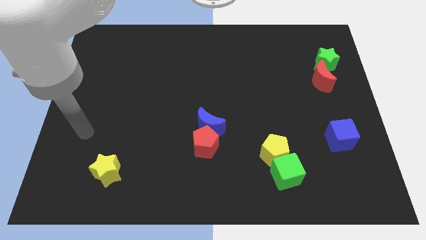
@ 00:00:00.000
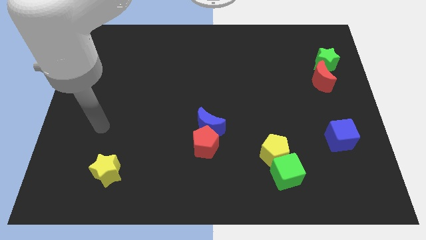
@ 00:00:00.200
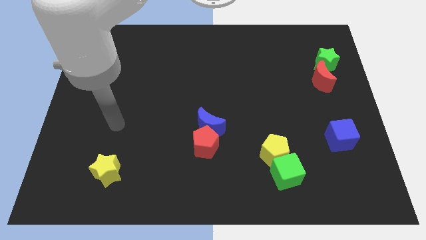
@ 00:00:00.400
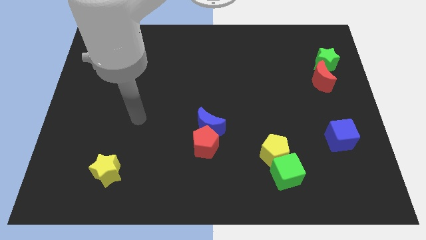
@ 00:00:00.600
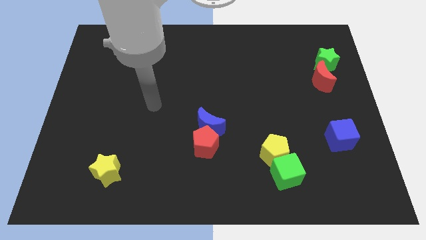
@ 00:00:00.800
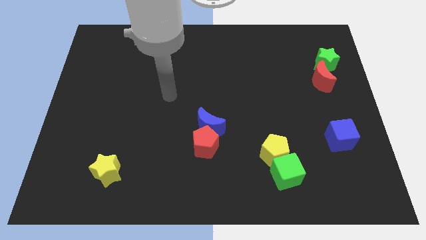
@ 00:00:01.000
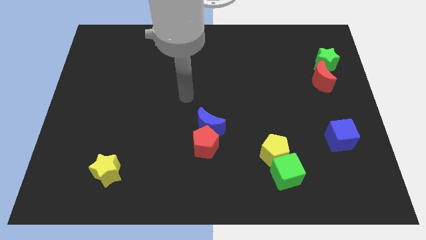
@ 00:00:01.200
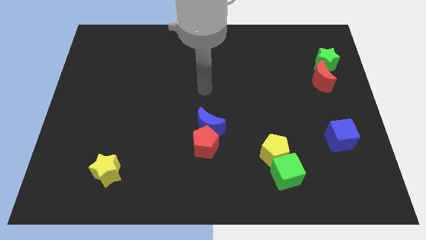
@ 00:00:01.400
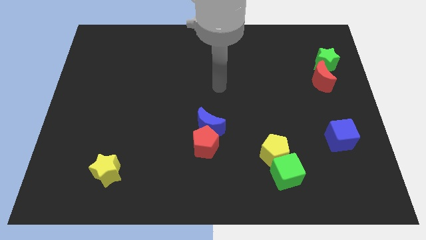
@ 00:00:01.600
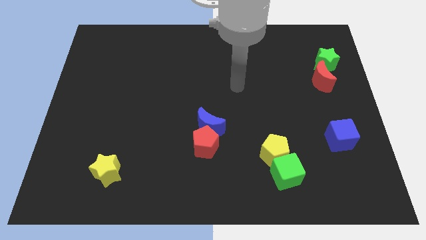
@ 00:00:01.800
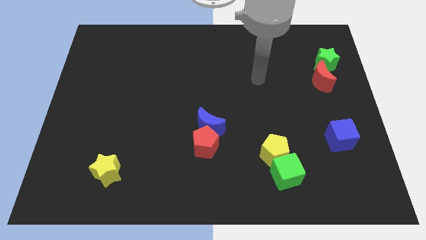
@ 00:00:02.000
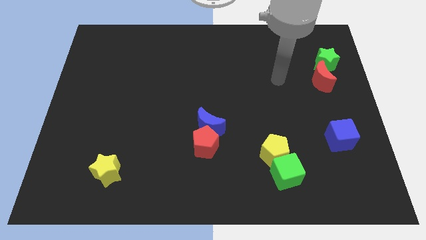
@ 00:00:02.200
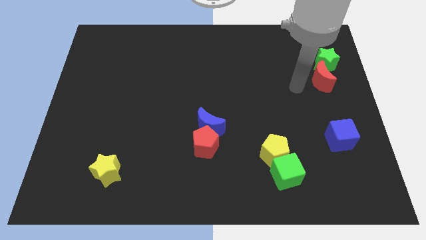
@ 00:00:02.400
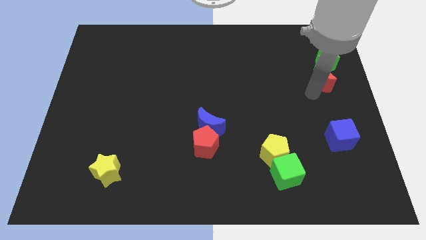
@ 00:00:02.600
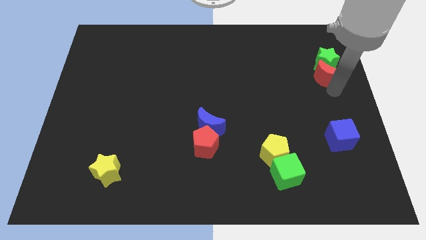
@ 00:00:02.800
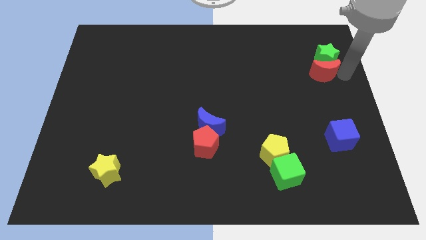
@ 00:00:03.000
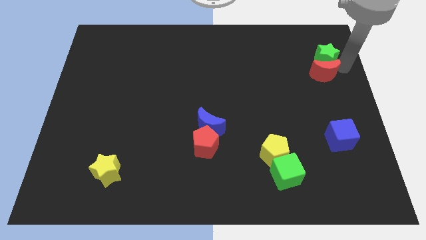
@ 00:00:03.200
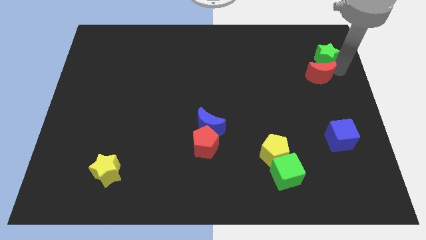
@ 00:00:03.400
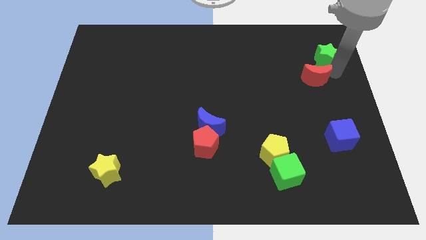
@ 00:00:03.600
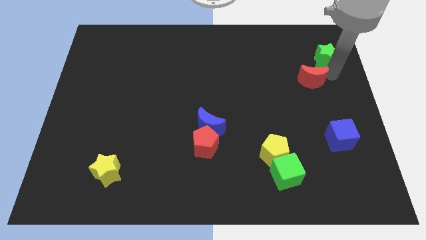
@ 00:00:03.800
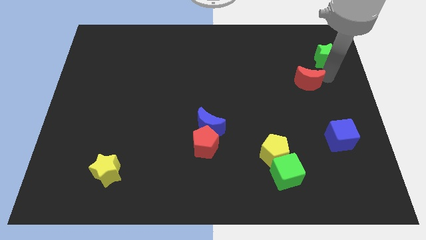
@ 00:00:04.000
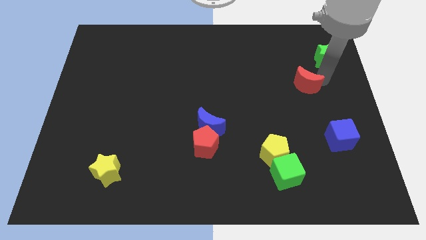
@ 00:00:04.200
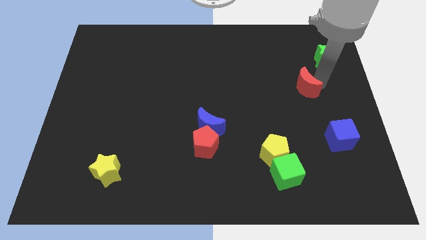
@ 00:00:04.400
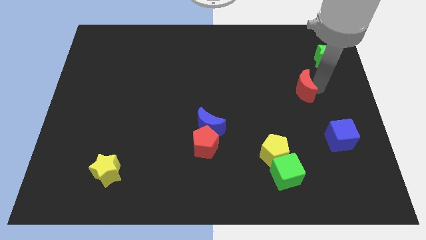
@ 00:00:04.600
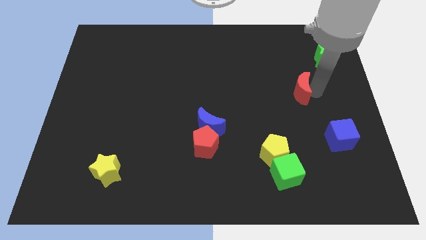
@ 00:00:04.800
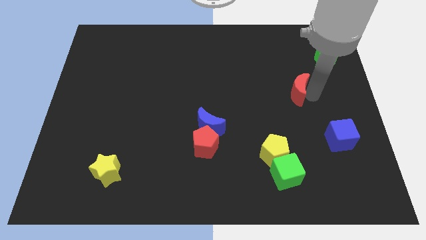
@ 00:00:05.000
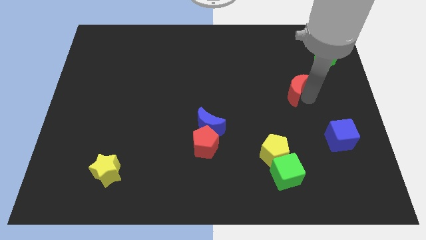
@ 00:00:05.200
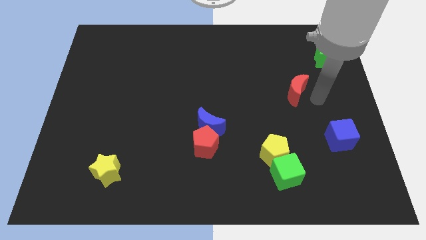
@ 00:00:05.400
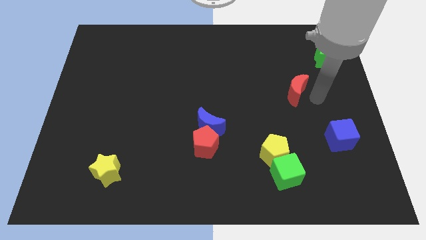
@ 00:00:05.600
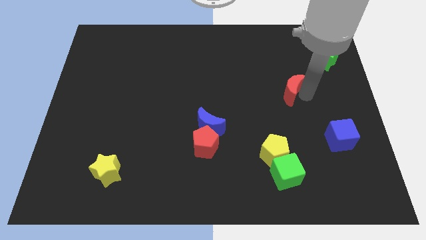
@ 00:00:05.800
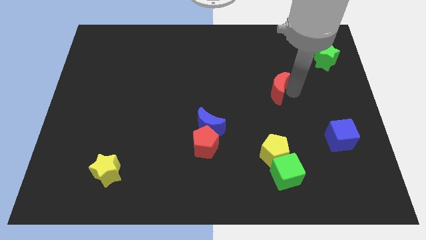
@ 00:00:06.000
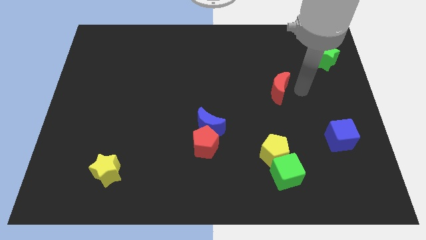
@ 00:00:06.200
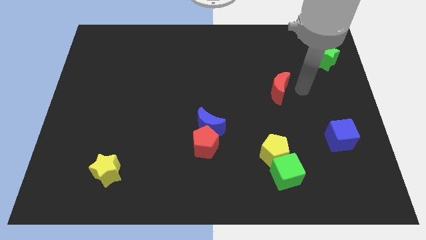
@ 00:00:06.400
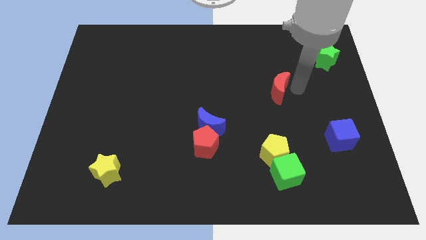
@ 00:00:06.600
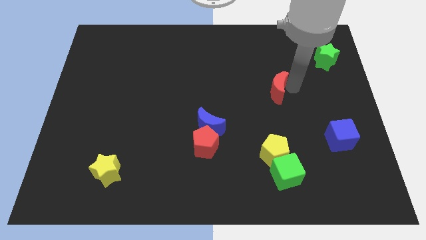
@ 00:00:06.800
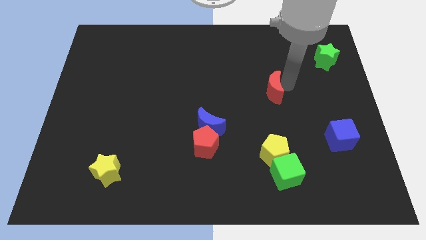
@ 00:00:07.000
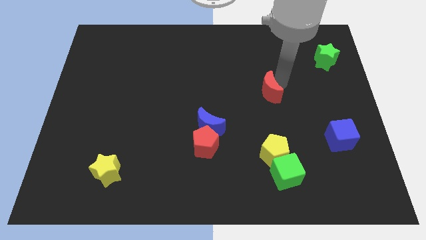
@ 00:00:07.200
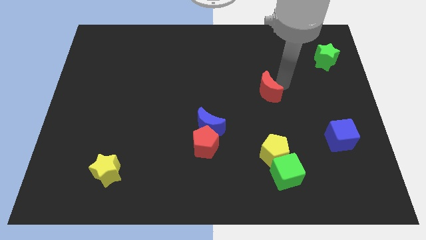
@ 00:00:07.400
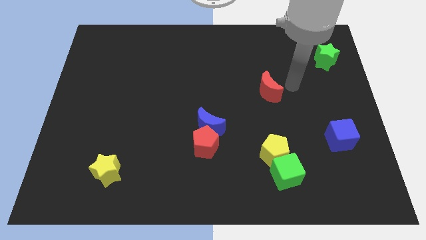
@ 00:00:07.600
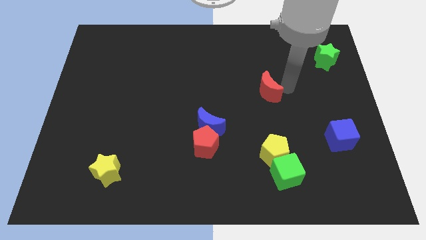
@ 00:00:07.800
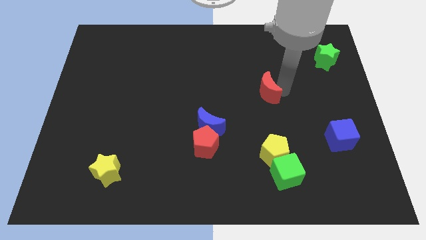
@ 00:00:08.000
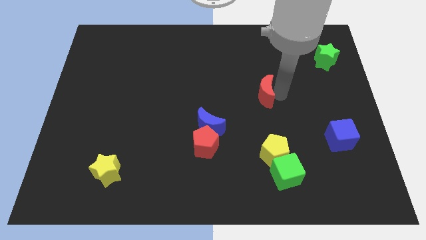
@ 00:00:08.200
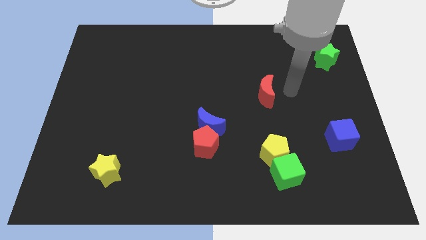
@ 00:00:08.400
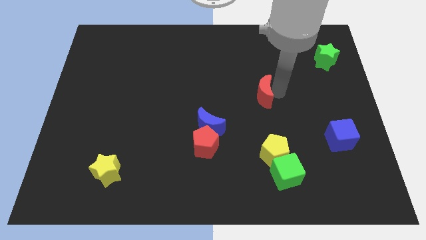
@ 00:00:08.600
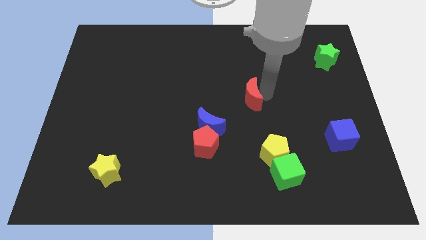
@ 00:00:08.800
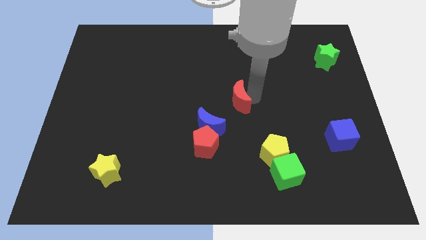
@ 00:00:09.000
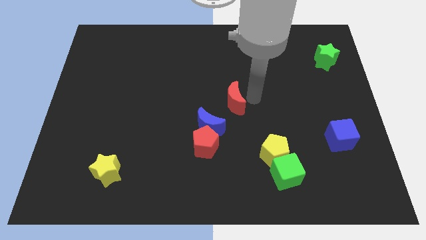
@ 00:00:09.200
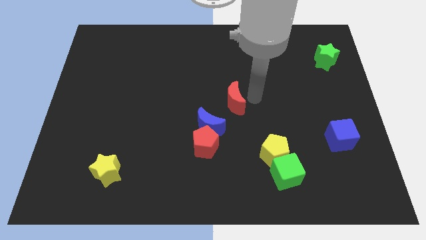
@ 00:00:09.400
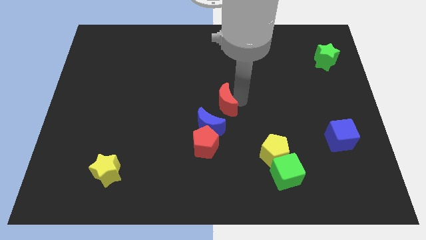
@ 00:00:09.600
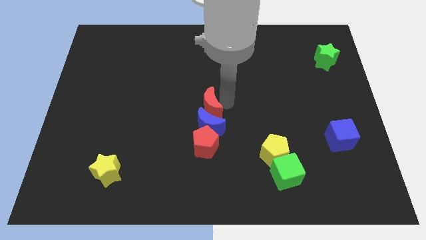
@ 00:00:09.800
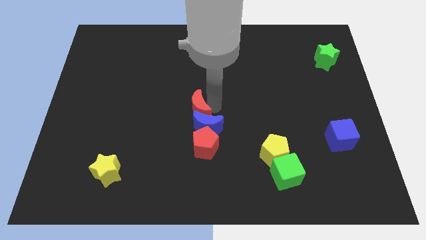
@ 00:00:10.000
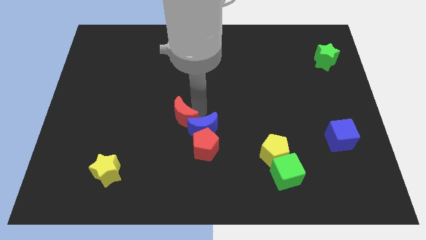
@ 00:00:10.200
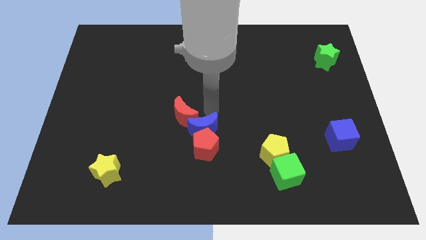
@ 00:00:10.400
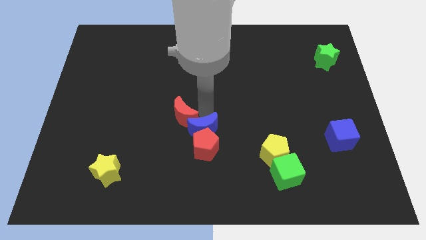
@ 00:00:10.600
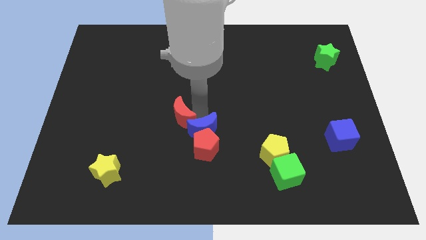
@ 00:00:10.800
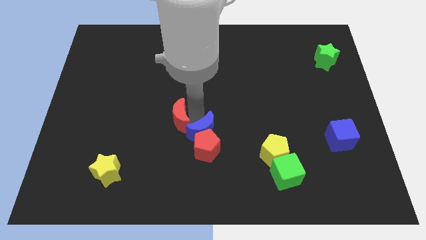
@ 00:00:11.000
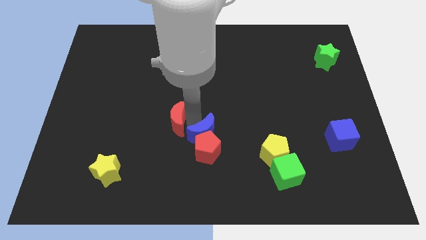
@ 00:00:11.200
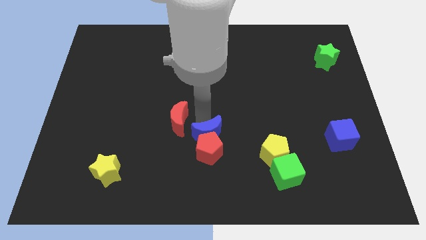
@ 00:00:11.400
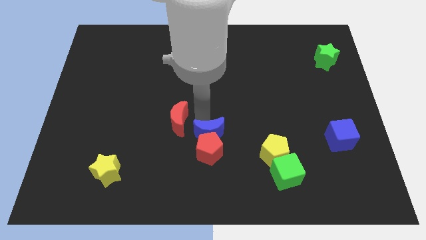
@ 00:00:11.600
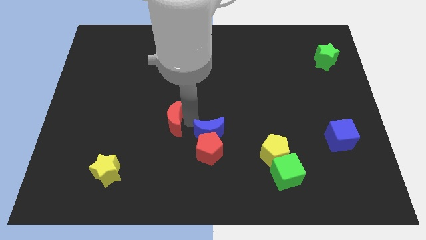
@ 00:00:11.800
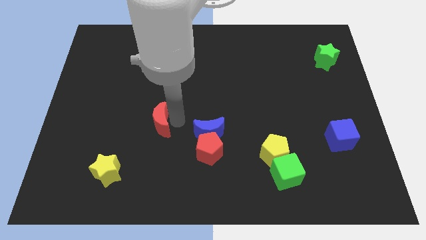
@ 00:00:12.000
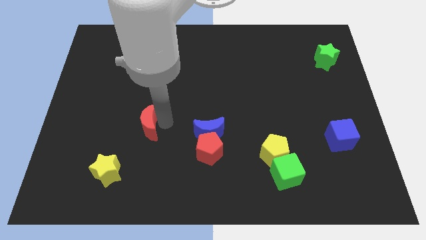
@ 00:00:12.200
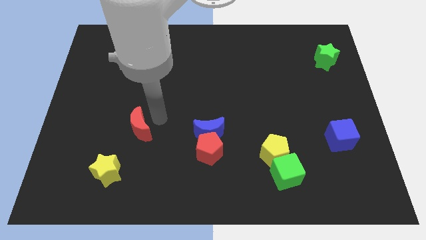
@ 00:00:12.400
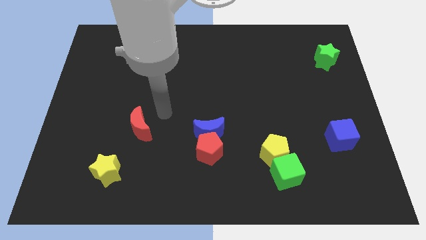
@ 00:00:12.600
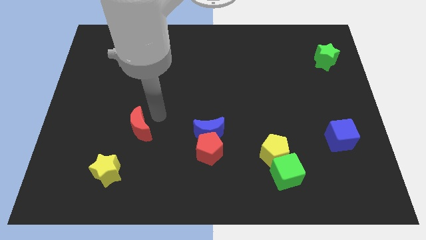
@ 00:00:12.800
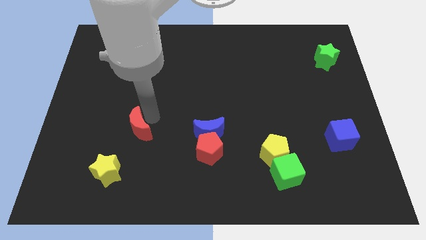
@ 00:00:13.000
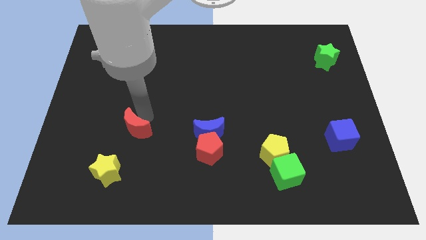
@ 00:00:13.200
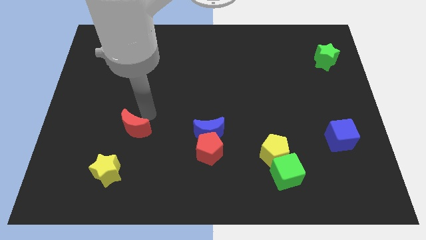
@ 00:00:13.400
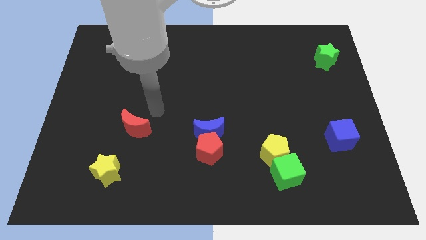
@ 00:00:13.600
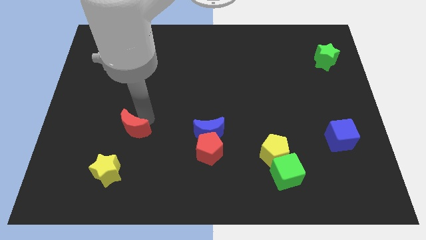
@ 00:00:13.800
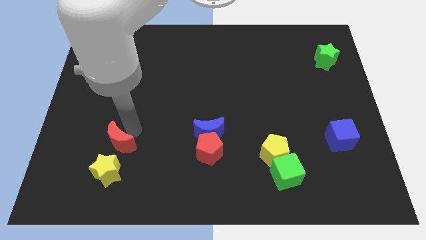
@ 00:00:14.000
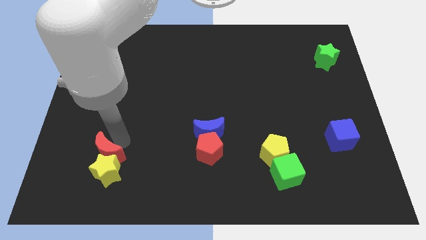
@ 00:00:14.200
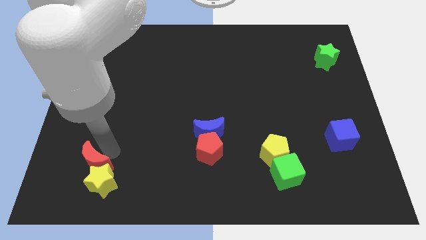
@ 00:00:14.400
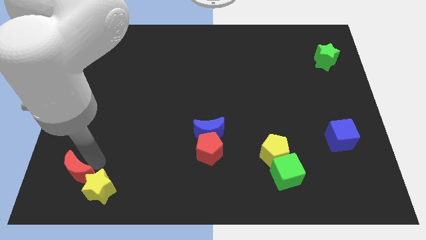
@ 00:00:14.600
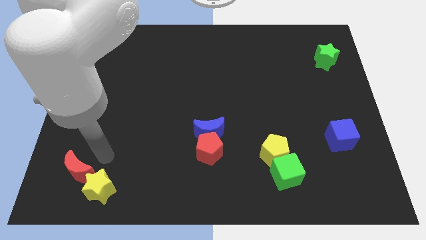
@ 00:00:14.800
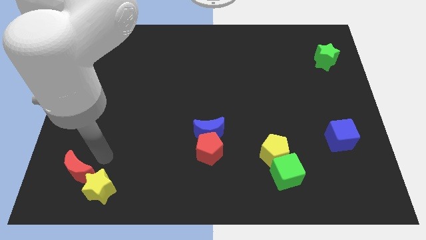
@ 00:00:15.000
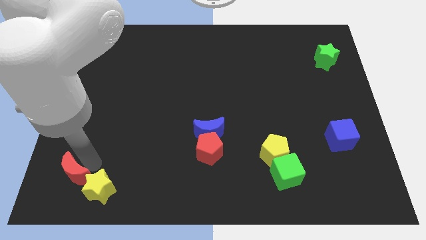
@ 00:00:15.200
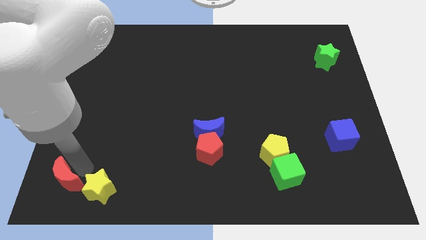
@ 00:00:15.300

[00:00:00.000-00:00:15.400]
move the red moon to the lower left corner
